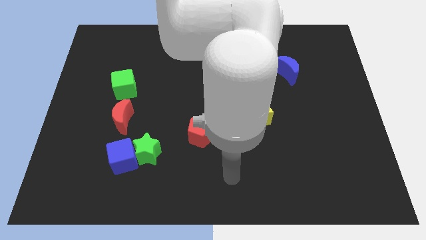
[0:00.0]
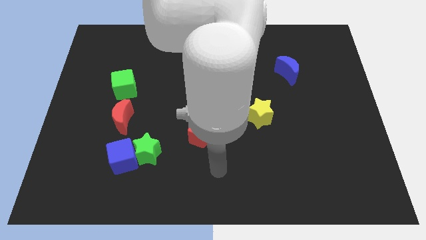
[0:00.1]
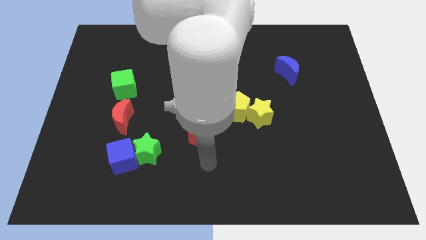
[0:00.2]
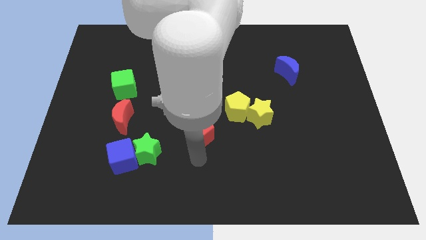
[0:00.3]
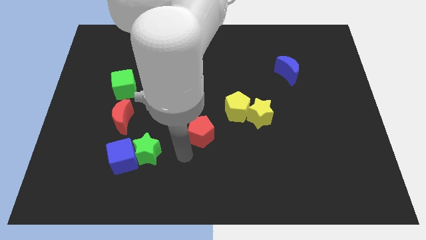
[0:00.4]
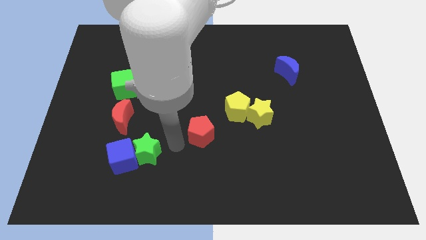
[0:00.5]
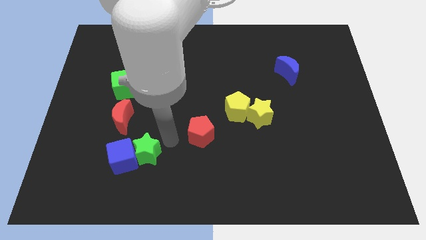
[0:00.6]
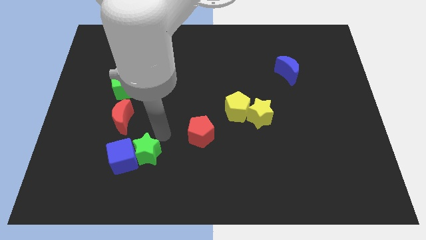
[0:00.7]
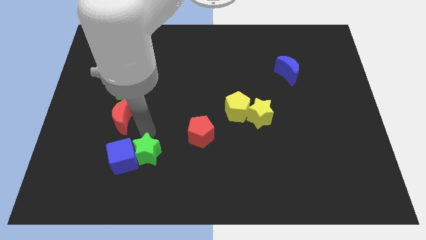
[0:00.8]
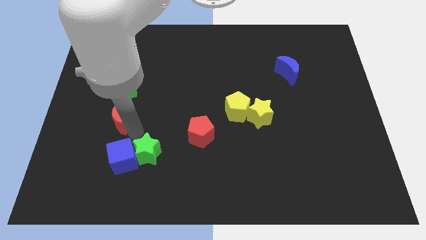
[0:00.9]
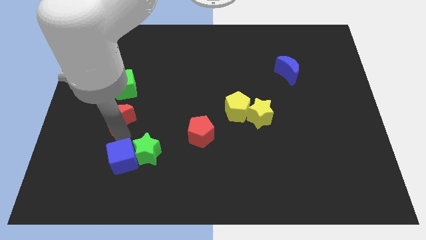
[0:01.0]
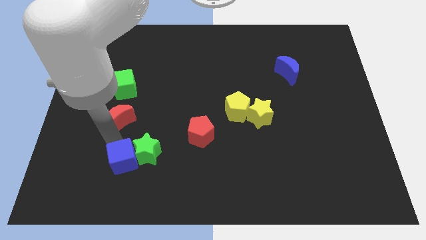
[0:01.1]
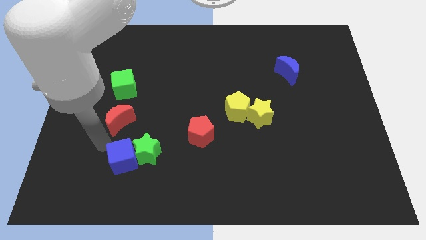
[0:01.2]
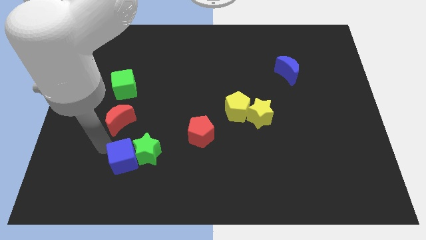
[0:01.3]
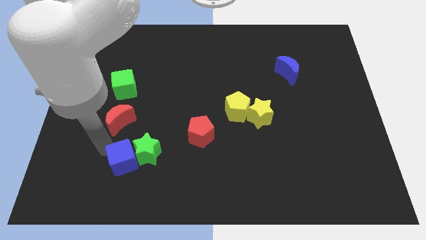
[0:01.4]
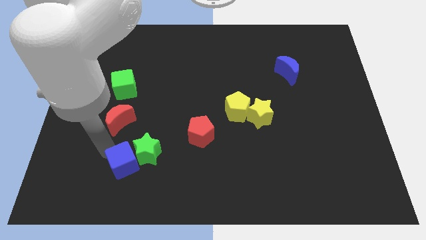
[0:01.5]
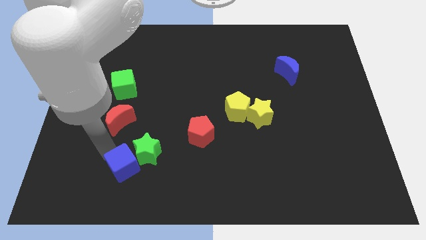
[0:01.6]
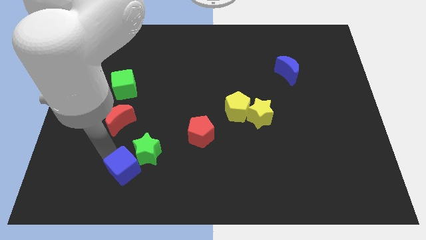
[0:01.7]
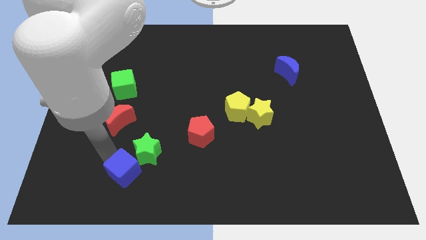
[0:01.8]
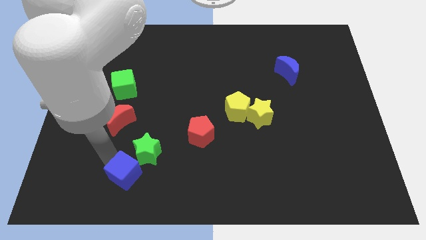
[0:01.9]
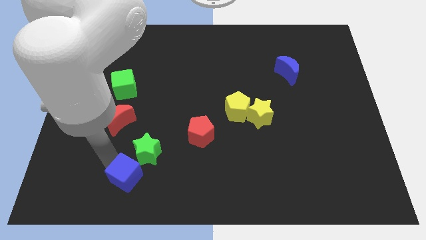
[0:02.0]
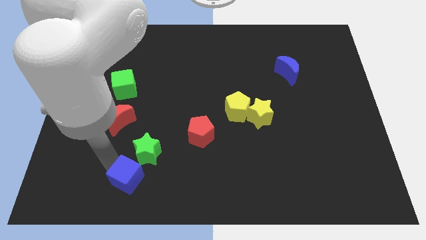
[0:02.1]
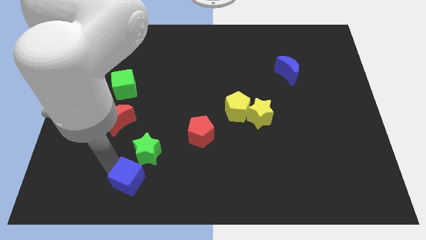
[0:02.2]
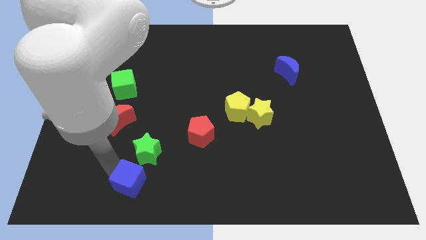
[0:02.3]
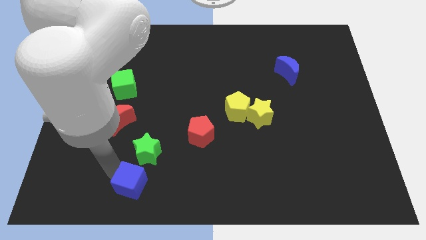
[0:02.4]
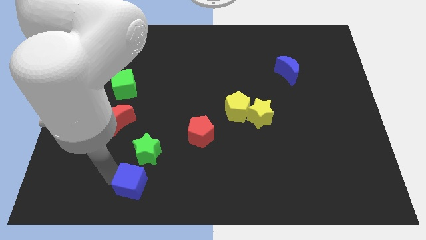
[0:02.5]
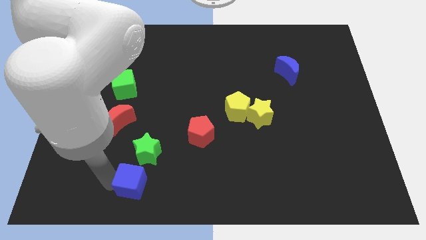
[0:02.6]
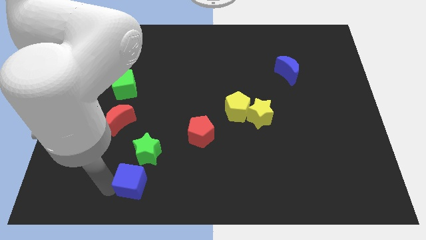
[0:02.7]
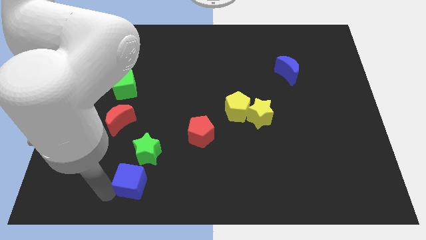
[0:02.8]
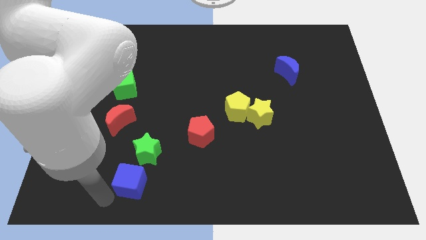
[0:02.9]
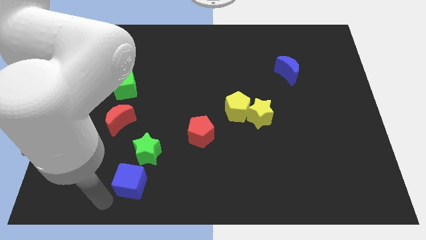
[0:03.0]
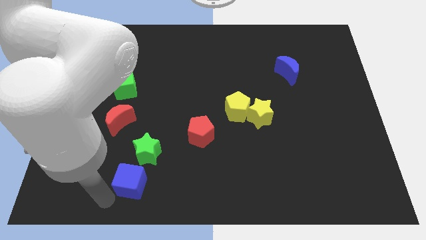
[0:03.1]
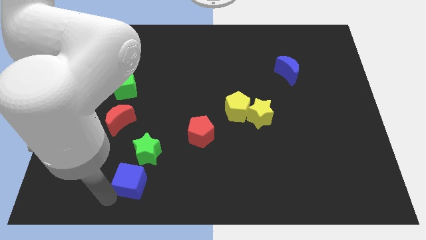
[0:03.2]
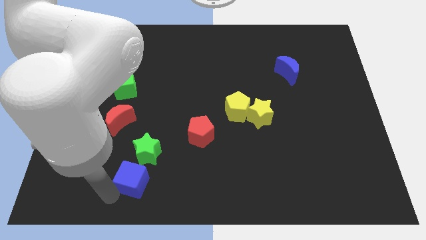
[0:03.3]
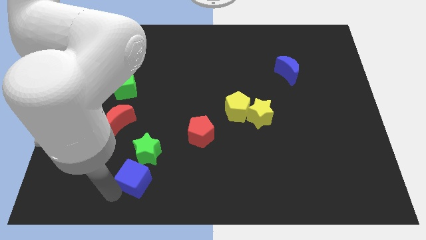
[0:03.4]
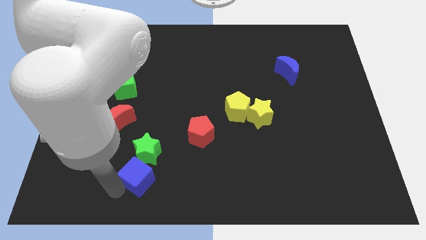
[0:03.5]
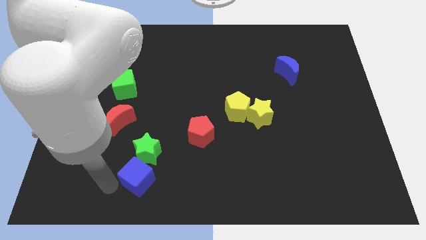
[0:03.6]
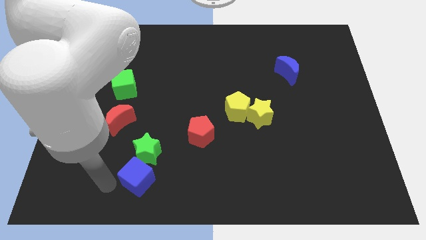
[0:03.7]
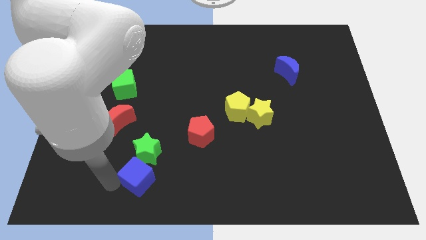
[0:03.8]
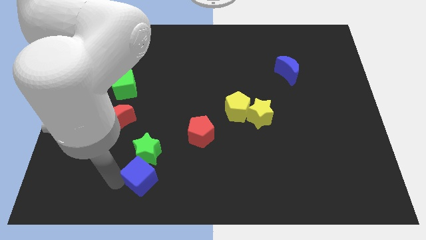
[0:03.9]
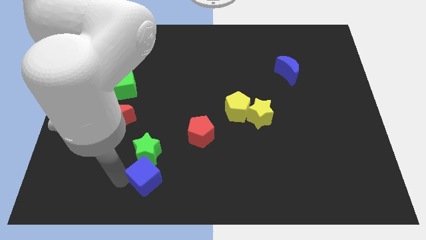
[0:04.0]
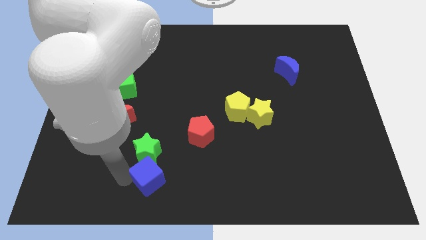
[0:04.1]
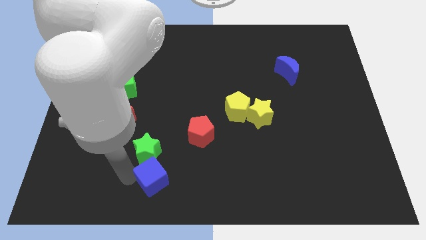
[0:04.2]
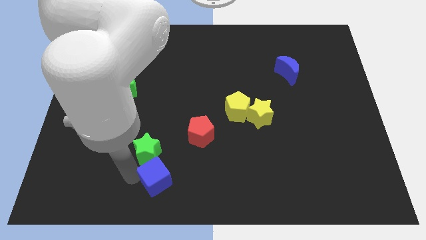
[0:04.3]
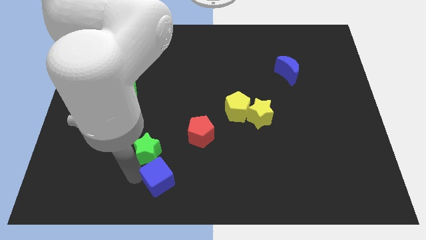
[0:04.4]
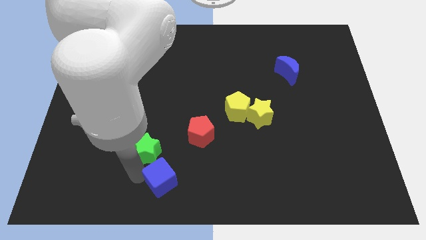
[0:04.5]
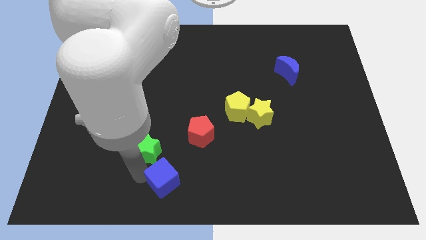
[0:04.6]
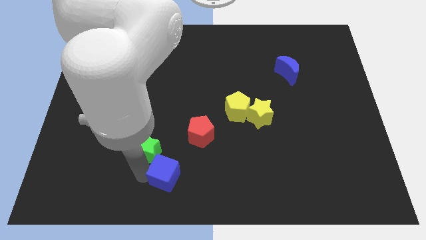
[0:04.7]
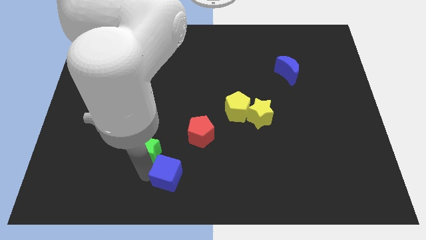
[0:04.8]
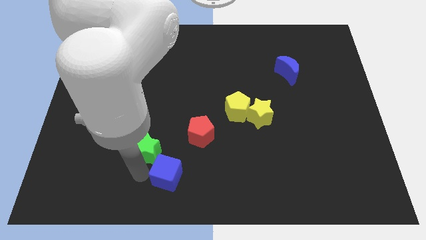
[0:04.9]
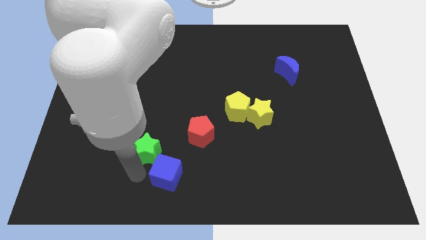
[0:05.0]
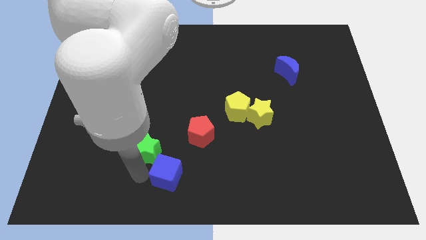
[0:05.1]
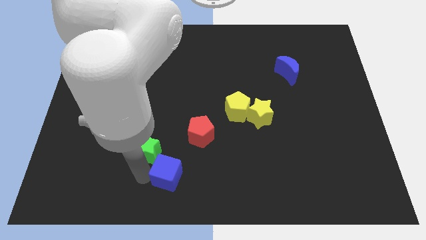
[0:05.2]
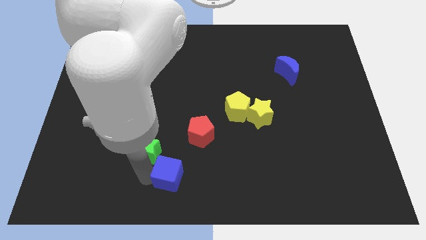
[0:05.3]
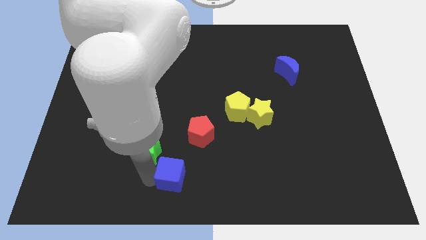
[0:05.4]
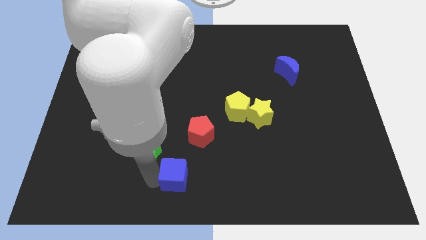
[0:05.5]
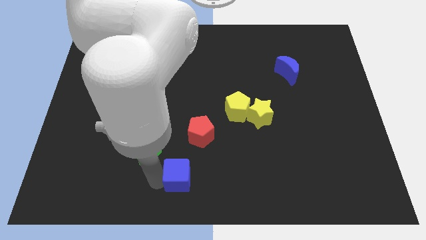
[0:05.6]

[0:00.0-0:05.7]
push the blue cube to the bottom of the red pentagon

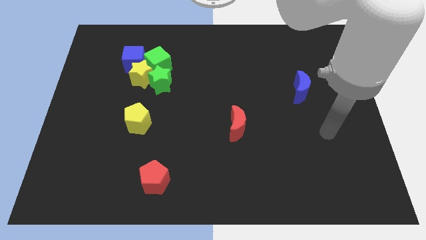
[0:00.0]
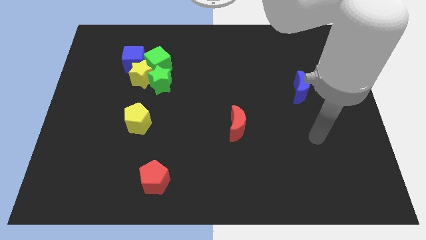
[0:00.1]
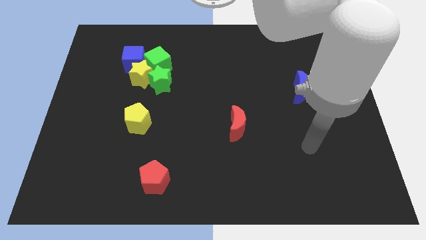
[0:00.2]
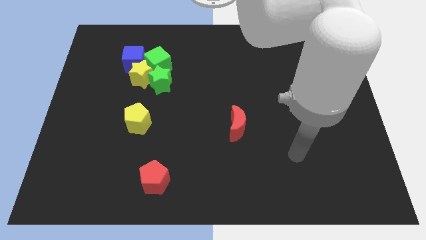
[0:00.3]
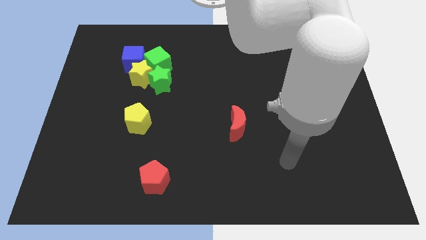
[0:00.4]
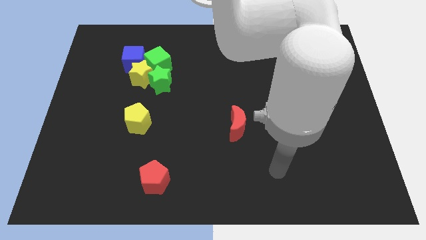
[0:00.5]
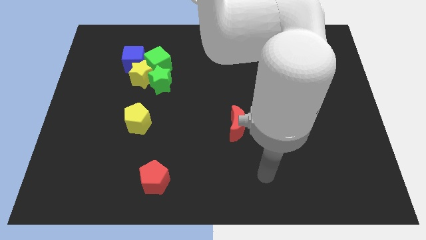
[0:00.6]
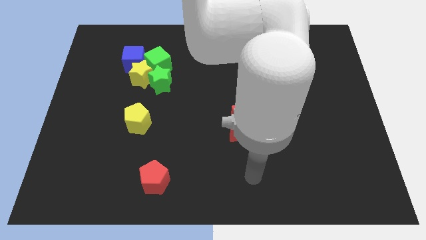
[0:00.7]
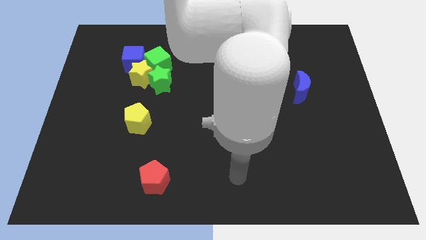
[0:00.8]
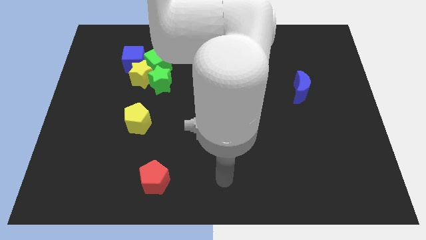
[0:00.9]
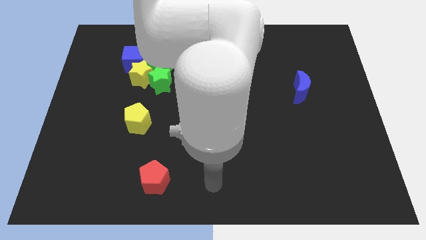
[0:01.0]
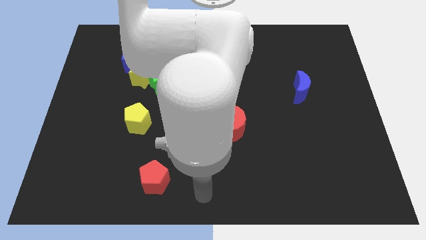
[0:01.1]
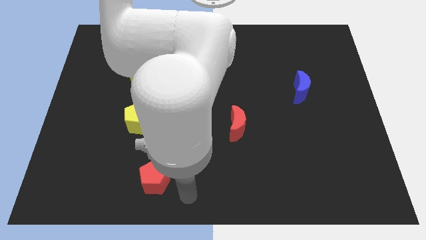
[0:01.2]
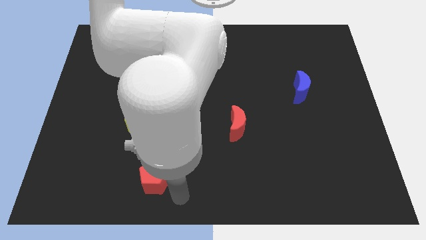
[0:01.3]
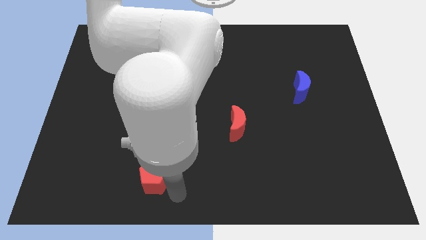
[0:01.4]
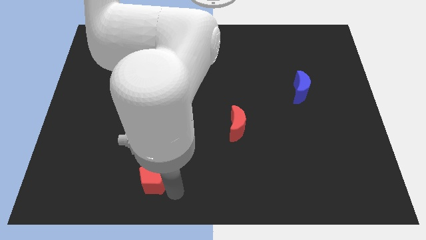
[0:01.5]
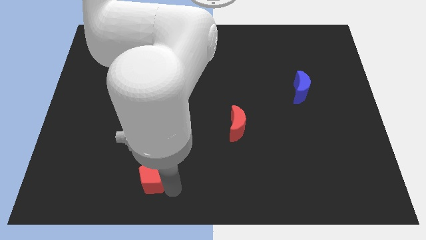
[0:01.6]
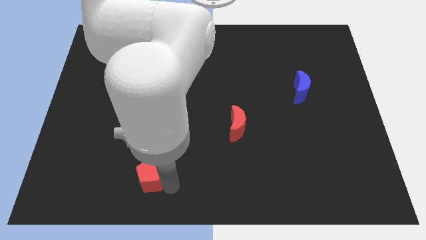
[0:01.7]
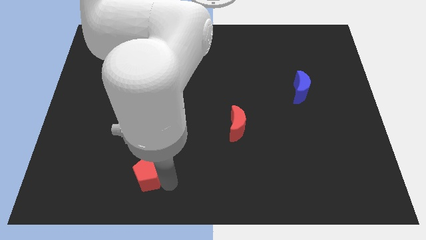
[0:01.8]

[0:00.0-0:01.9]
slide the red pentagon to the bottom side of the yellow pentagon
